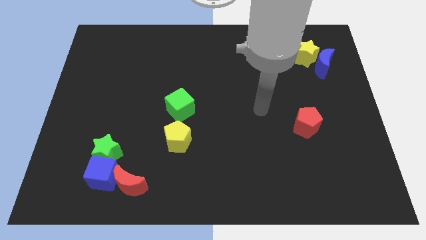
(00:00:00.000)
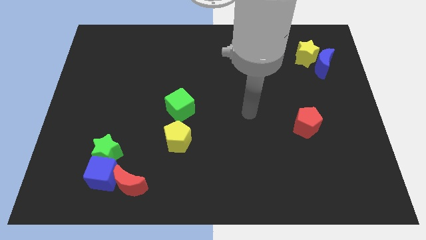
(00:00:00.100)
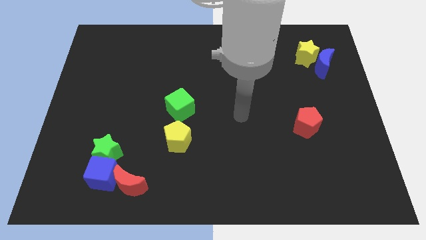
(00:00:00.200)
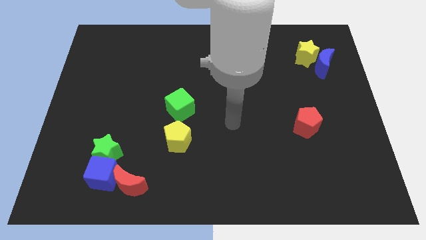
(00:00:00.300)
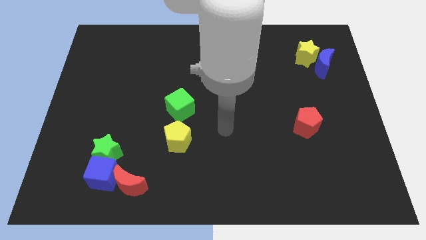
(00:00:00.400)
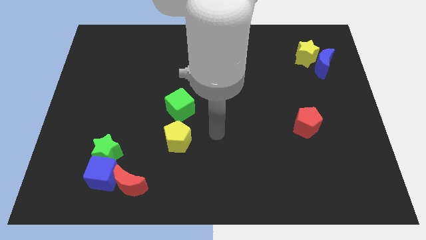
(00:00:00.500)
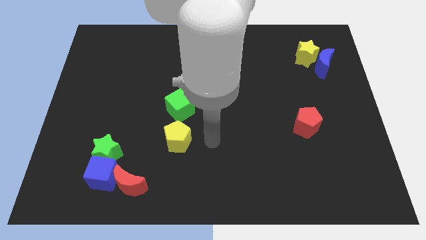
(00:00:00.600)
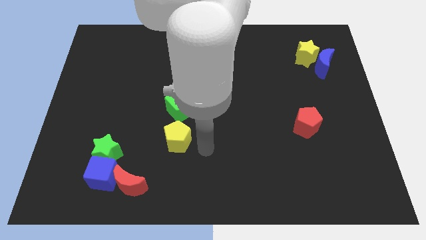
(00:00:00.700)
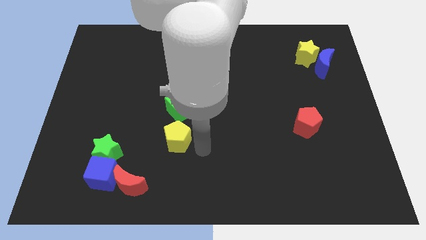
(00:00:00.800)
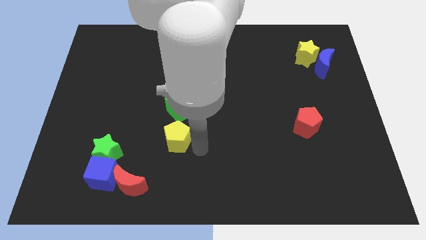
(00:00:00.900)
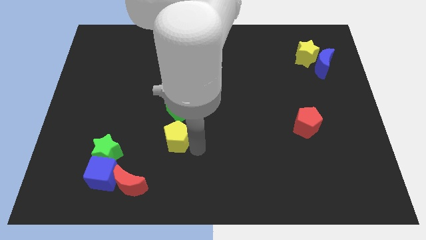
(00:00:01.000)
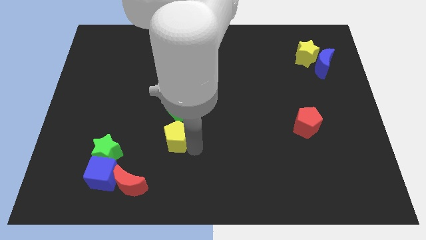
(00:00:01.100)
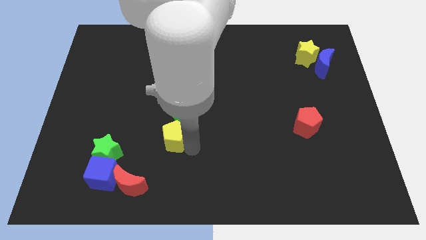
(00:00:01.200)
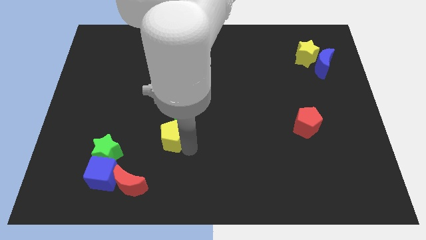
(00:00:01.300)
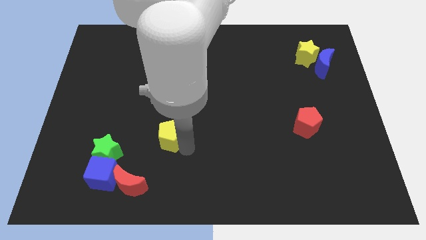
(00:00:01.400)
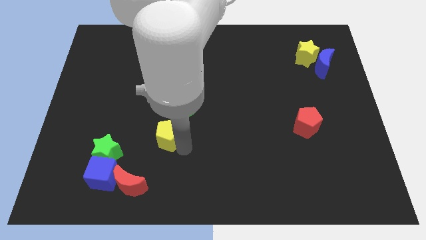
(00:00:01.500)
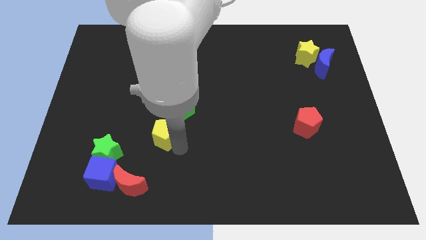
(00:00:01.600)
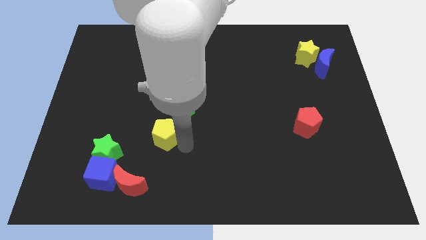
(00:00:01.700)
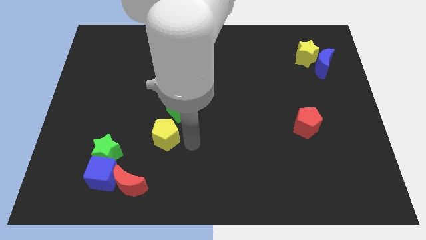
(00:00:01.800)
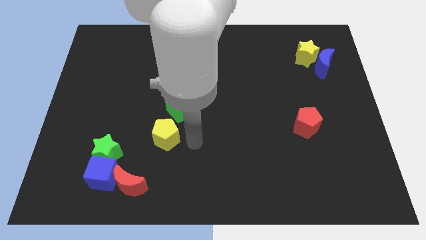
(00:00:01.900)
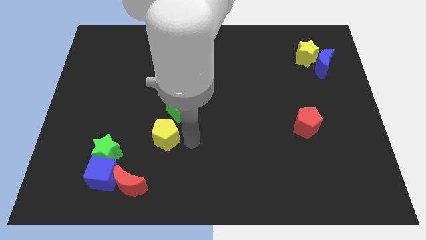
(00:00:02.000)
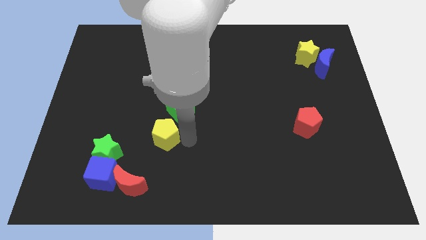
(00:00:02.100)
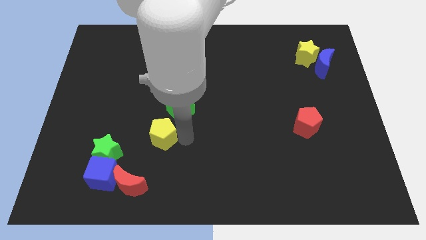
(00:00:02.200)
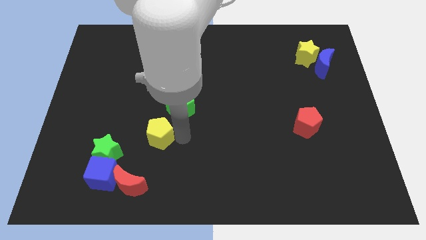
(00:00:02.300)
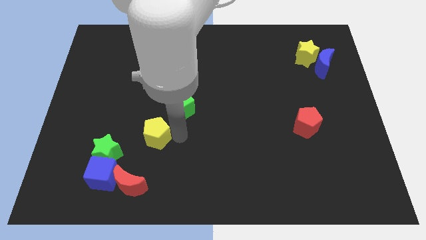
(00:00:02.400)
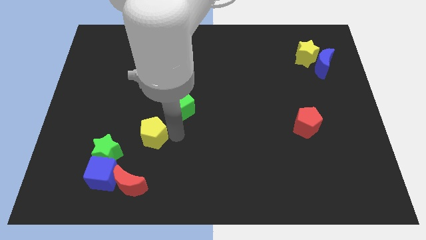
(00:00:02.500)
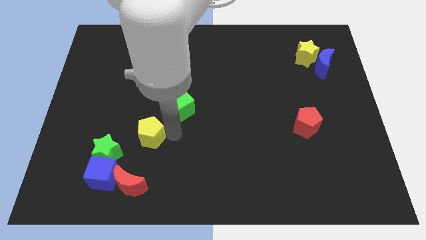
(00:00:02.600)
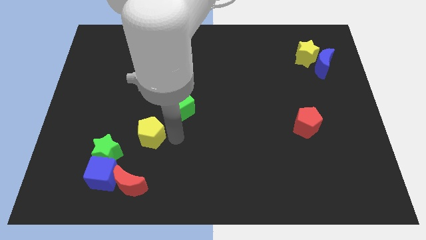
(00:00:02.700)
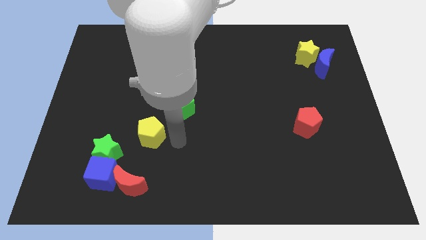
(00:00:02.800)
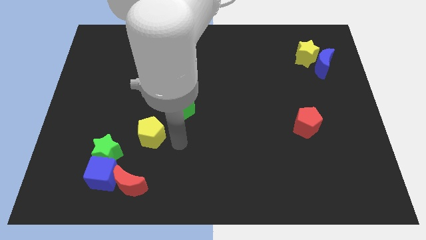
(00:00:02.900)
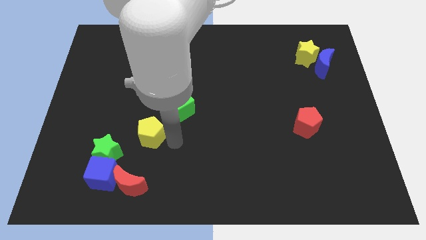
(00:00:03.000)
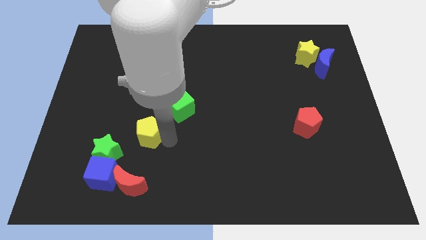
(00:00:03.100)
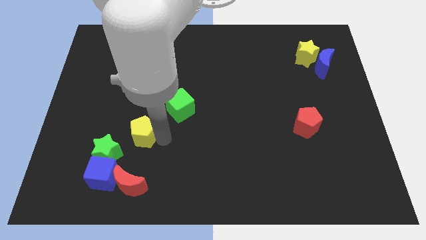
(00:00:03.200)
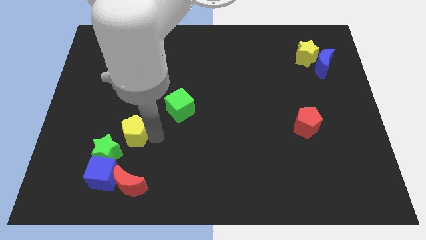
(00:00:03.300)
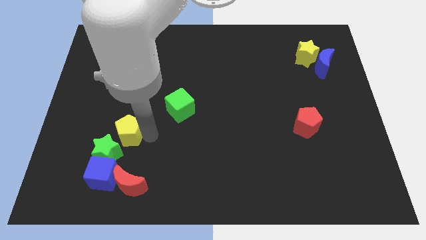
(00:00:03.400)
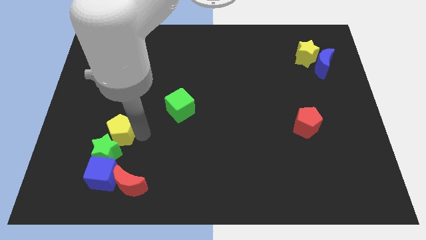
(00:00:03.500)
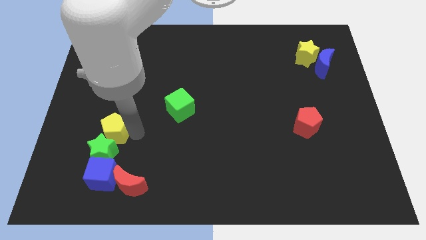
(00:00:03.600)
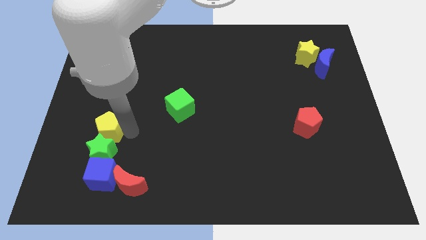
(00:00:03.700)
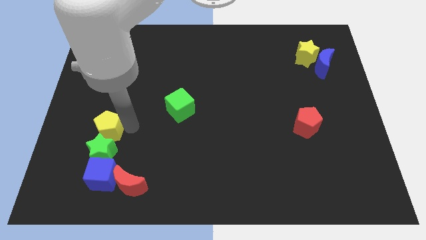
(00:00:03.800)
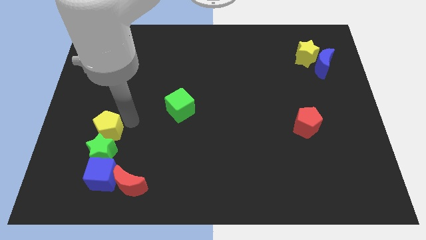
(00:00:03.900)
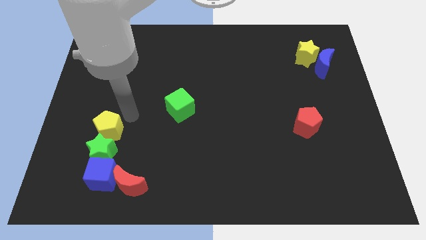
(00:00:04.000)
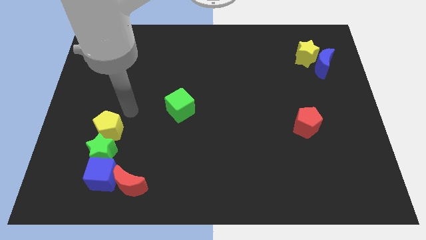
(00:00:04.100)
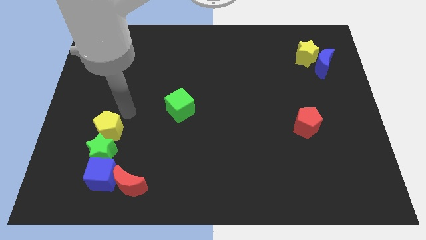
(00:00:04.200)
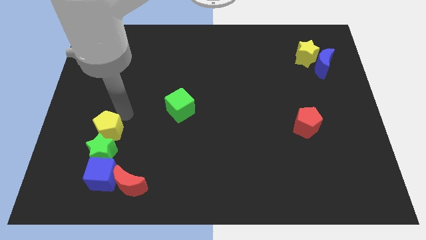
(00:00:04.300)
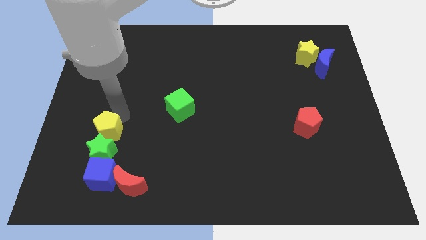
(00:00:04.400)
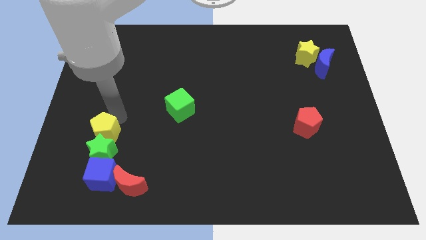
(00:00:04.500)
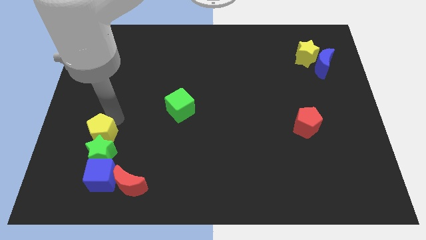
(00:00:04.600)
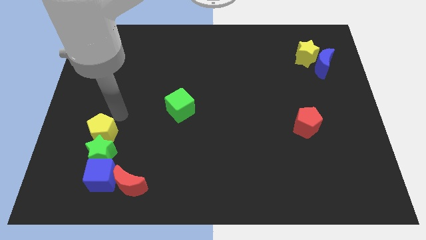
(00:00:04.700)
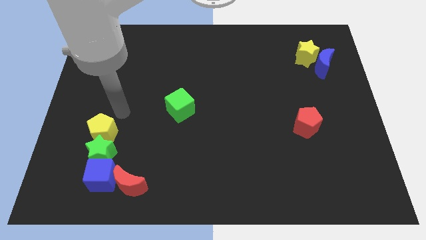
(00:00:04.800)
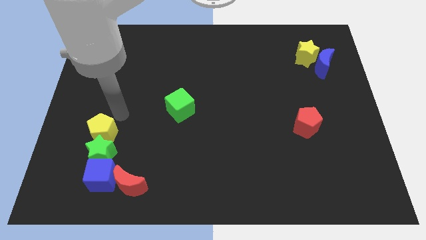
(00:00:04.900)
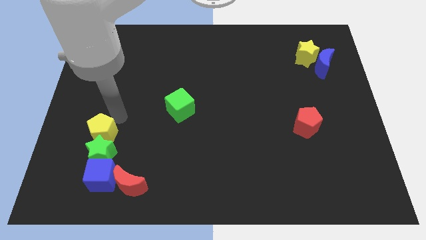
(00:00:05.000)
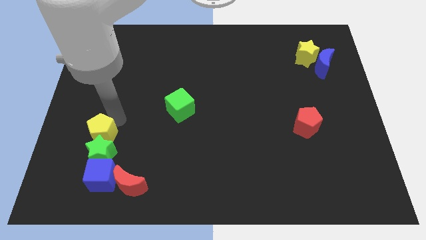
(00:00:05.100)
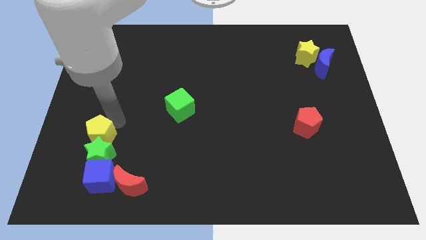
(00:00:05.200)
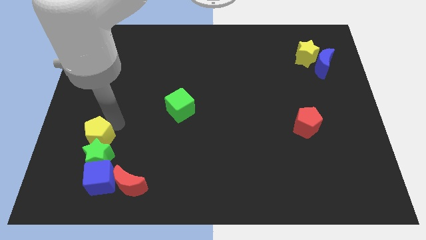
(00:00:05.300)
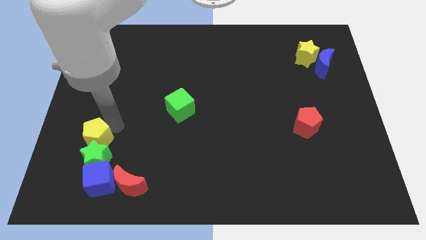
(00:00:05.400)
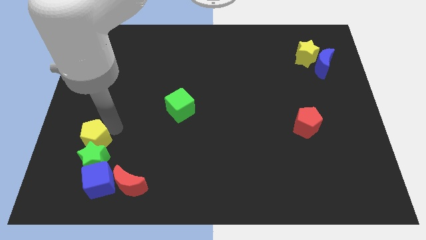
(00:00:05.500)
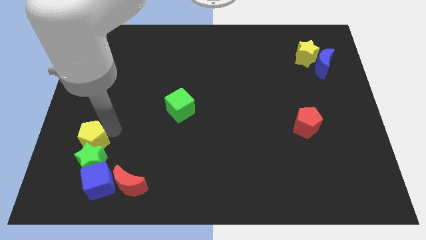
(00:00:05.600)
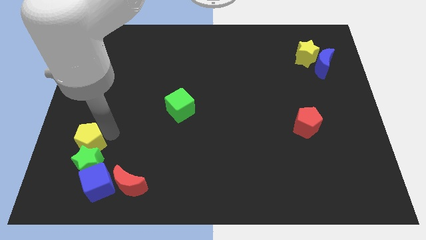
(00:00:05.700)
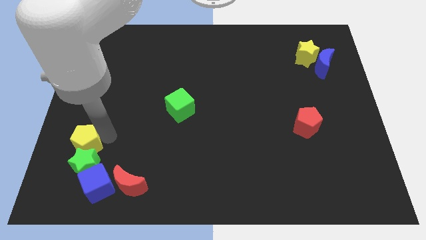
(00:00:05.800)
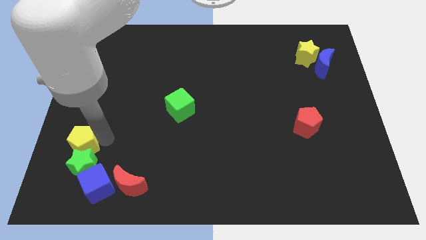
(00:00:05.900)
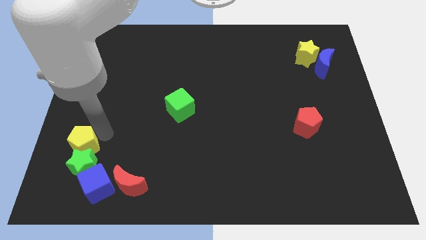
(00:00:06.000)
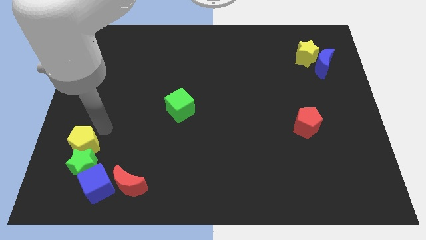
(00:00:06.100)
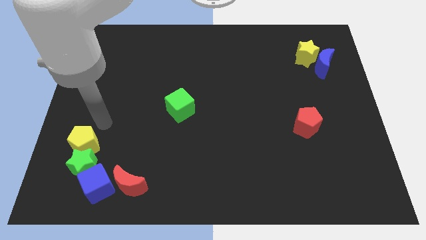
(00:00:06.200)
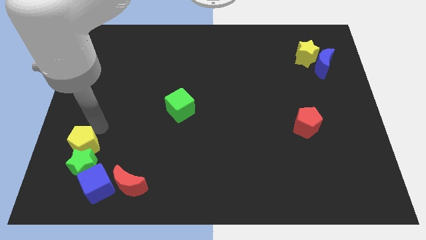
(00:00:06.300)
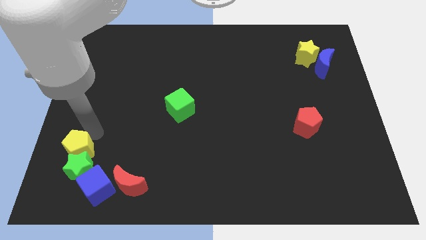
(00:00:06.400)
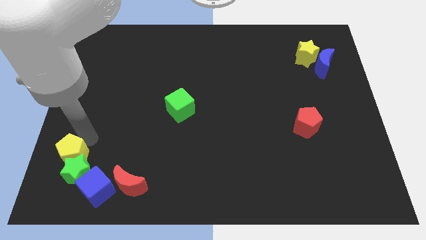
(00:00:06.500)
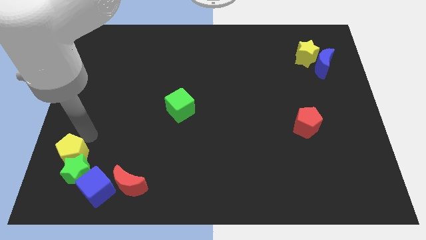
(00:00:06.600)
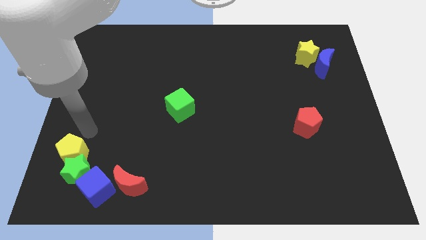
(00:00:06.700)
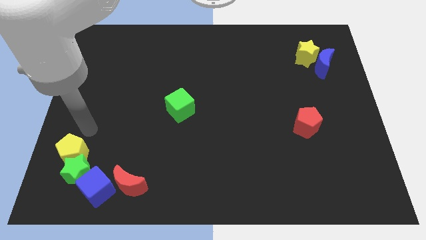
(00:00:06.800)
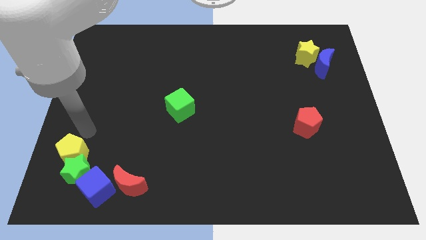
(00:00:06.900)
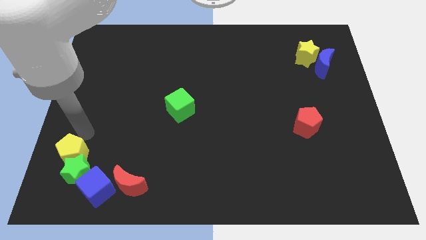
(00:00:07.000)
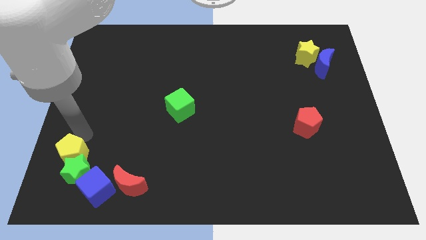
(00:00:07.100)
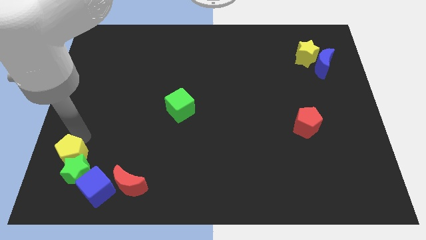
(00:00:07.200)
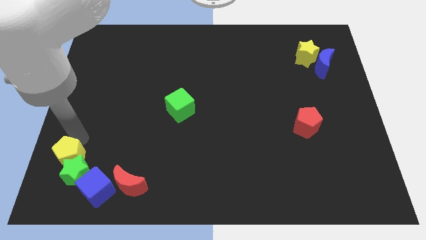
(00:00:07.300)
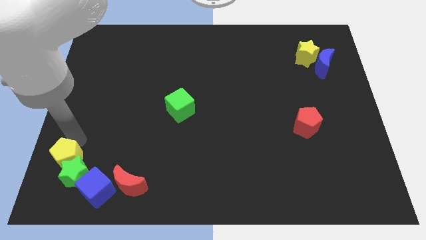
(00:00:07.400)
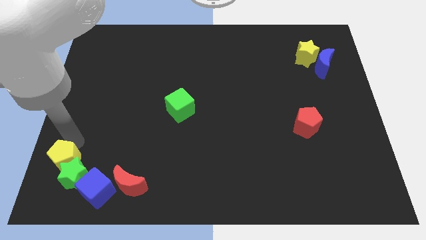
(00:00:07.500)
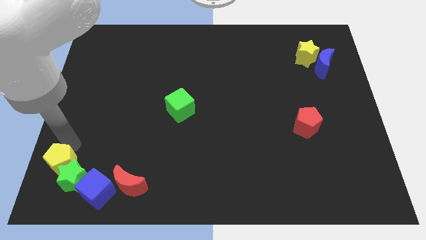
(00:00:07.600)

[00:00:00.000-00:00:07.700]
slide the yellow pentagon to the bottom left corner
